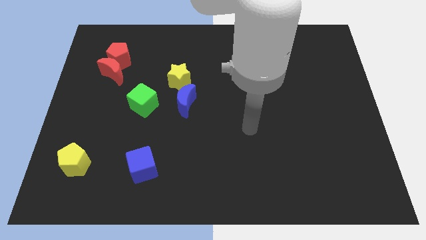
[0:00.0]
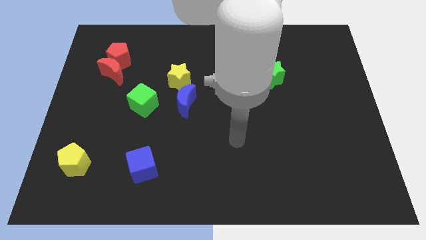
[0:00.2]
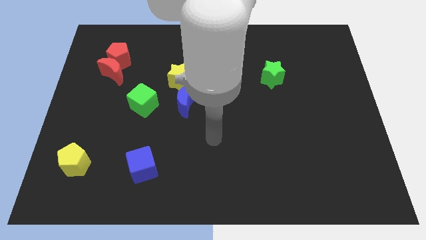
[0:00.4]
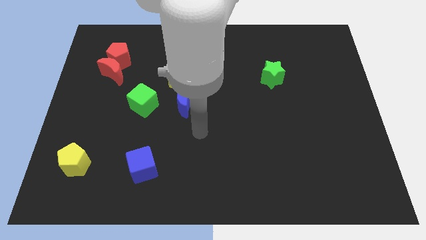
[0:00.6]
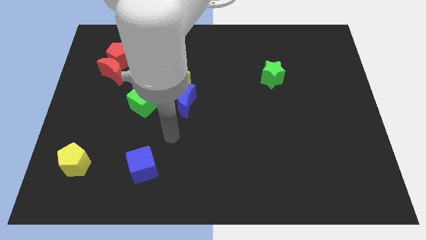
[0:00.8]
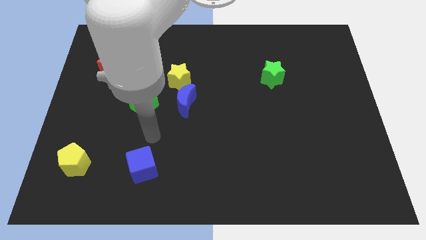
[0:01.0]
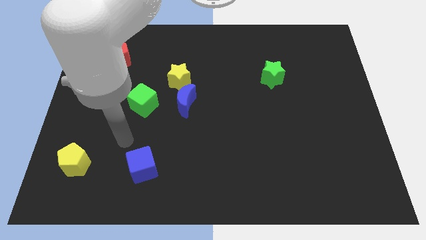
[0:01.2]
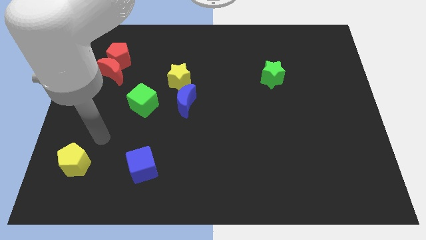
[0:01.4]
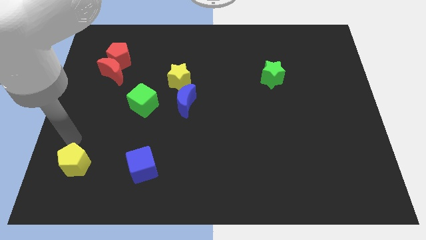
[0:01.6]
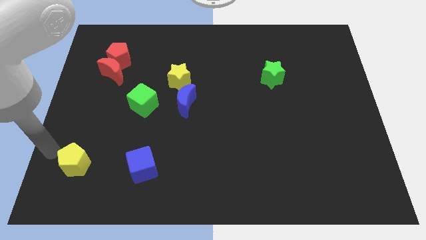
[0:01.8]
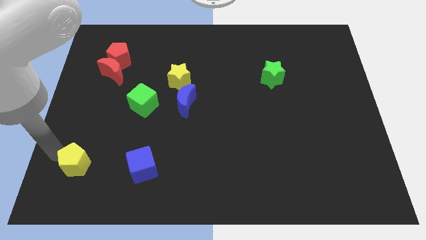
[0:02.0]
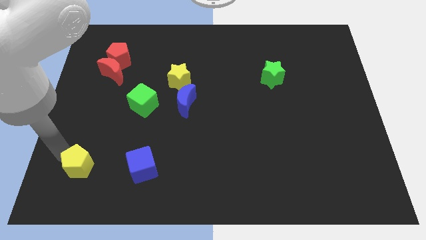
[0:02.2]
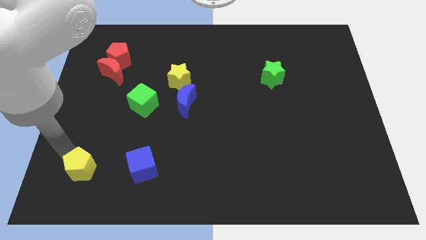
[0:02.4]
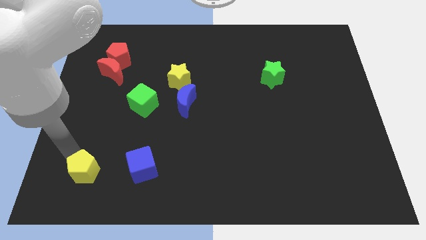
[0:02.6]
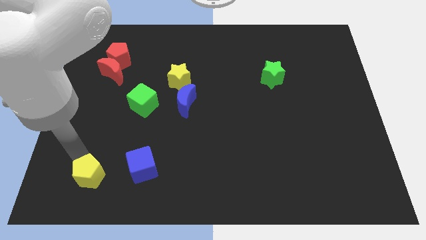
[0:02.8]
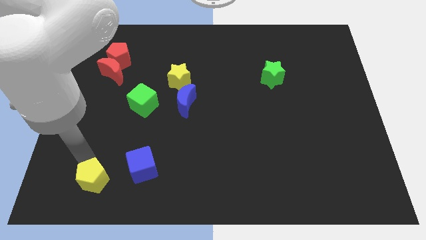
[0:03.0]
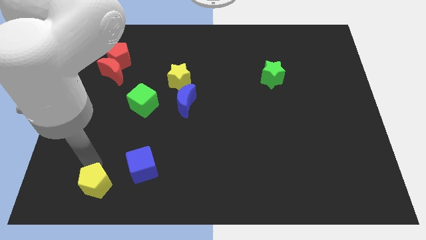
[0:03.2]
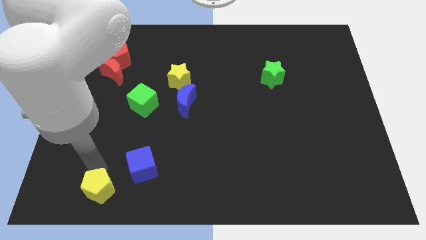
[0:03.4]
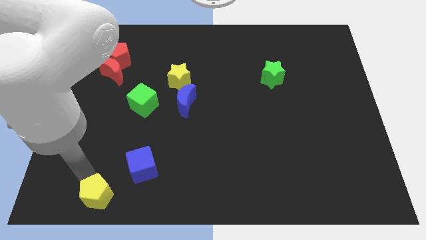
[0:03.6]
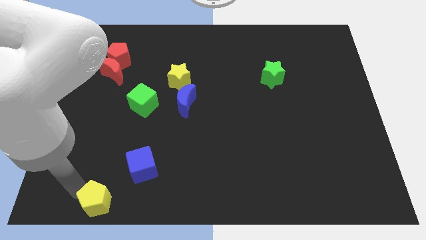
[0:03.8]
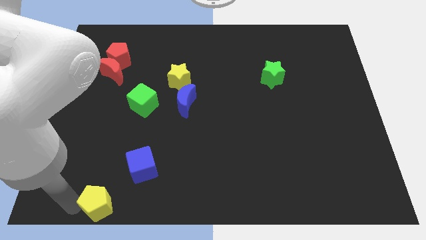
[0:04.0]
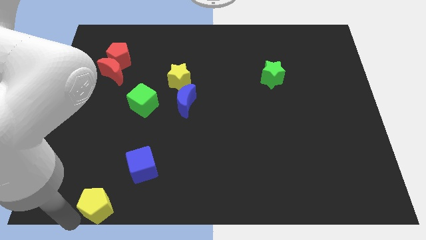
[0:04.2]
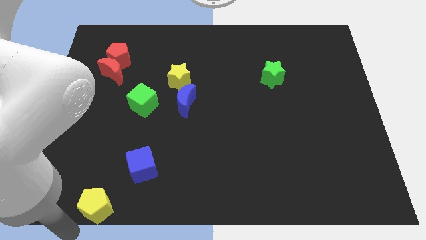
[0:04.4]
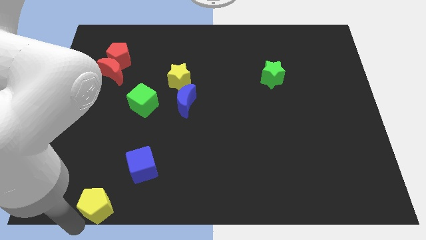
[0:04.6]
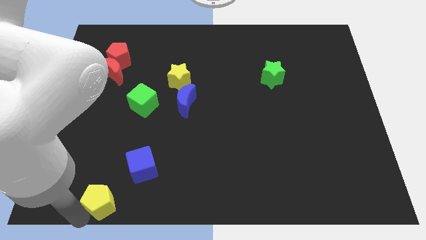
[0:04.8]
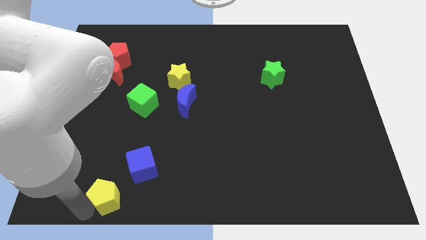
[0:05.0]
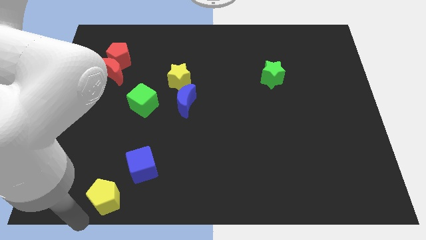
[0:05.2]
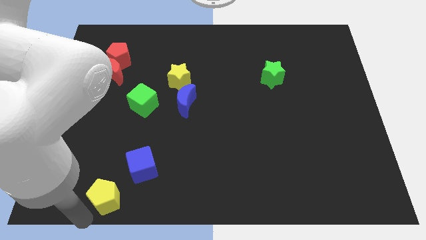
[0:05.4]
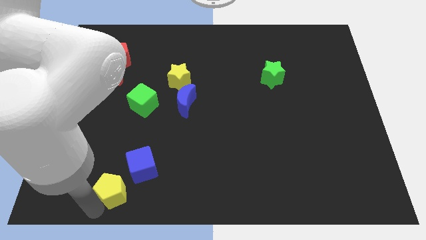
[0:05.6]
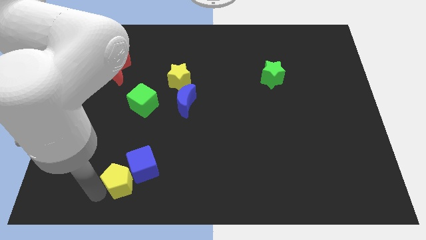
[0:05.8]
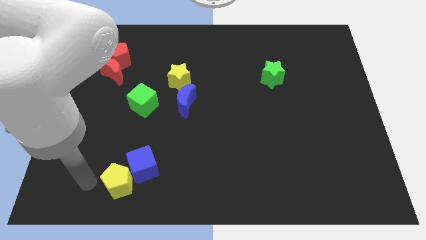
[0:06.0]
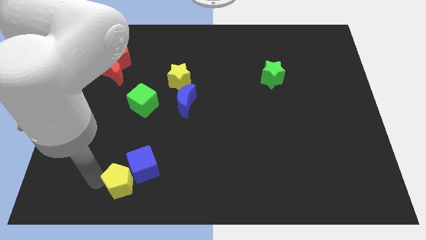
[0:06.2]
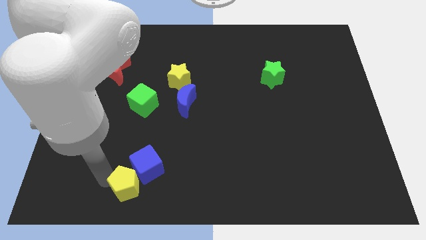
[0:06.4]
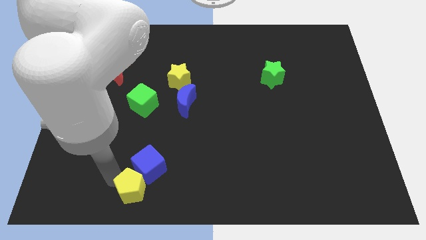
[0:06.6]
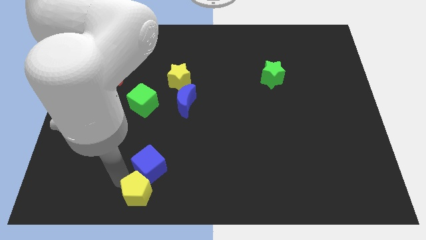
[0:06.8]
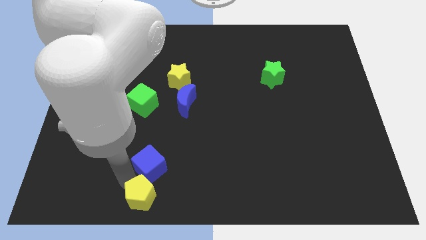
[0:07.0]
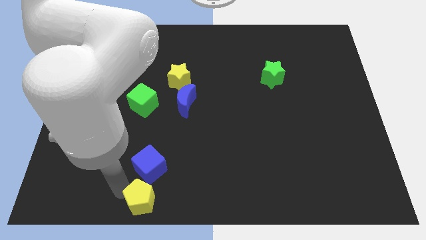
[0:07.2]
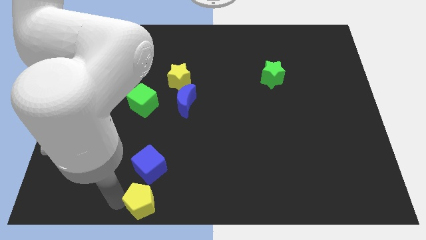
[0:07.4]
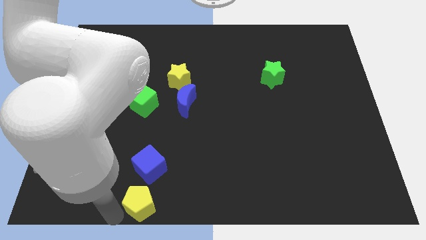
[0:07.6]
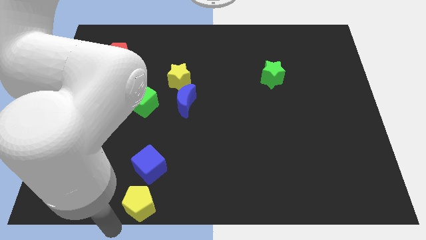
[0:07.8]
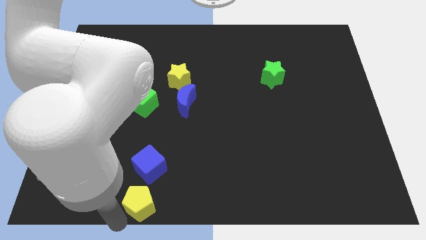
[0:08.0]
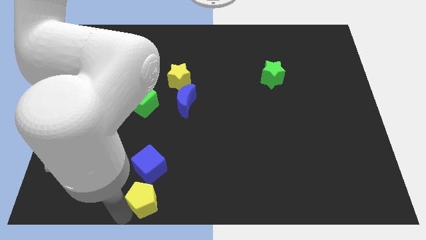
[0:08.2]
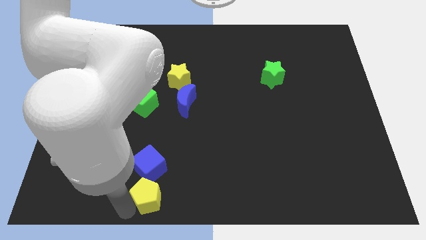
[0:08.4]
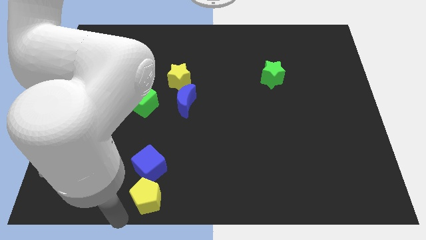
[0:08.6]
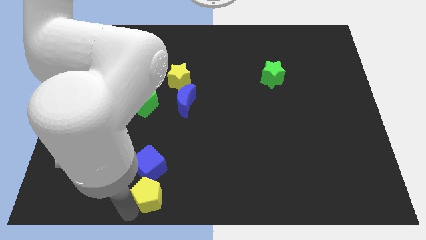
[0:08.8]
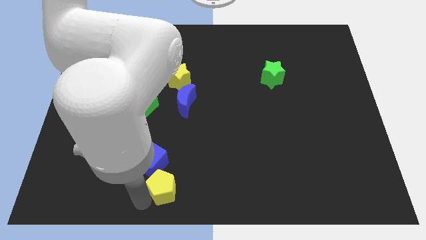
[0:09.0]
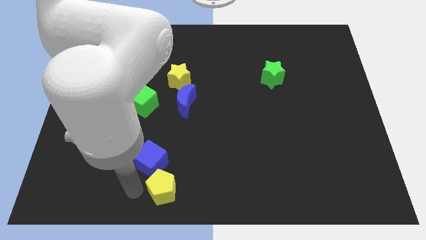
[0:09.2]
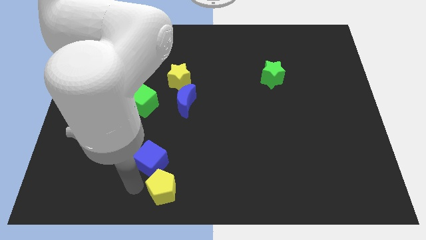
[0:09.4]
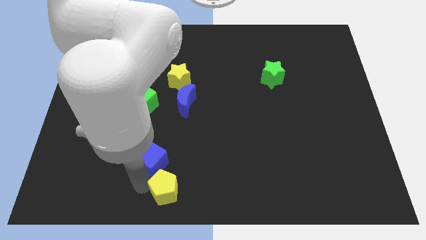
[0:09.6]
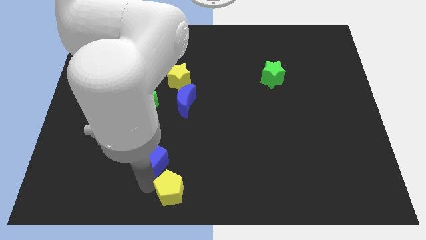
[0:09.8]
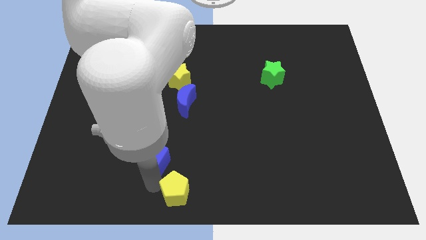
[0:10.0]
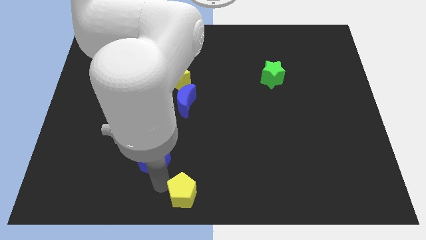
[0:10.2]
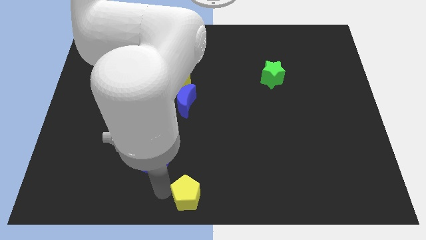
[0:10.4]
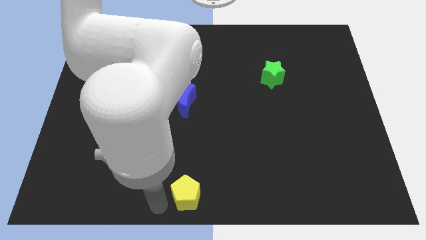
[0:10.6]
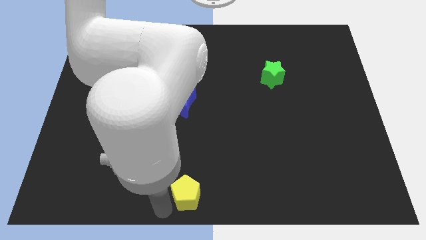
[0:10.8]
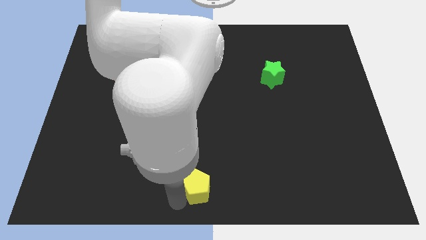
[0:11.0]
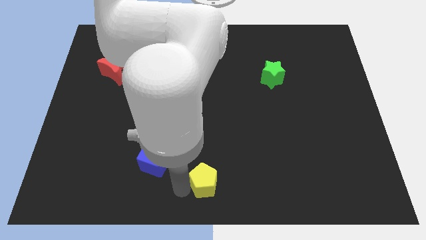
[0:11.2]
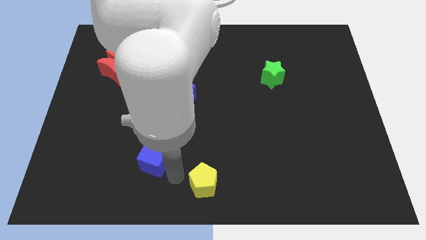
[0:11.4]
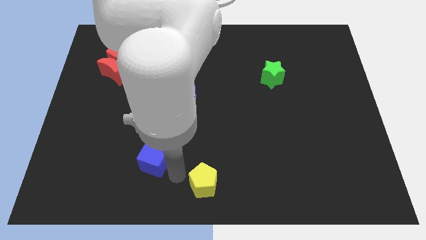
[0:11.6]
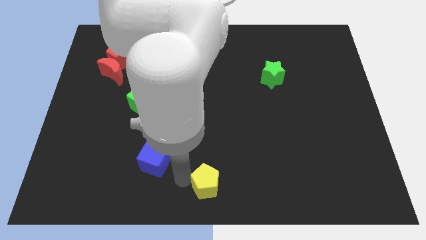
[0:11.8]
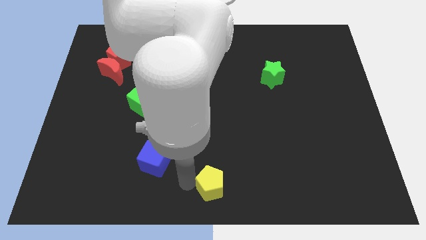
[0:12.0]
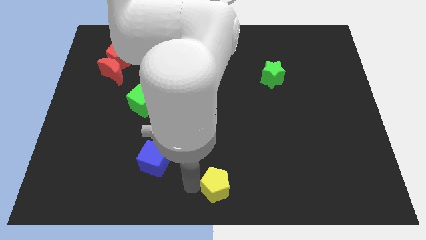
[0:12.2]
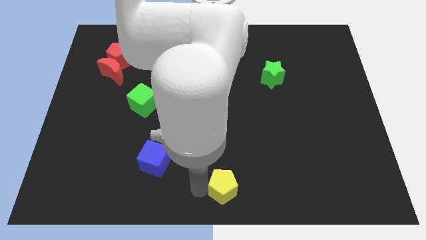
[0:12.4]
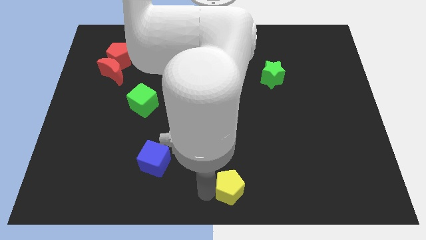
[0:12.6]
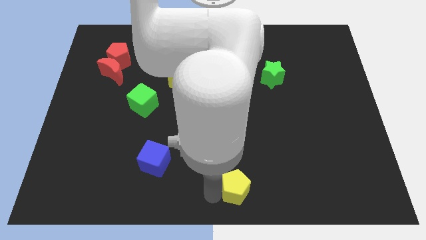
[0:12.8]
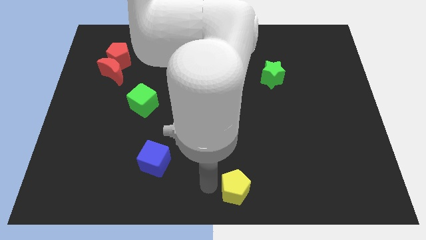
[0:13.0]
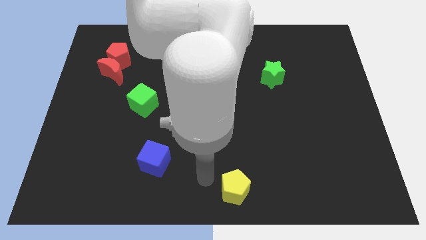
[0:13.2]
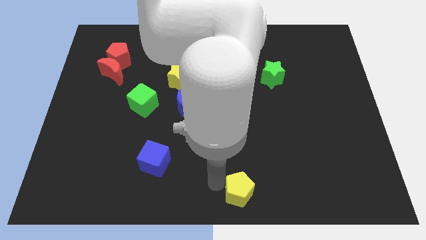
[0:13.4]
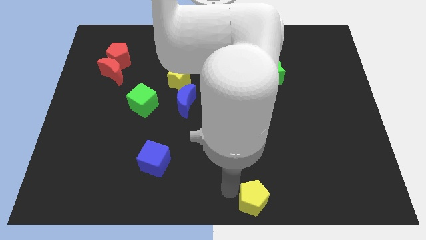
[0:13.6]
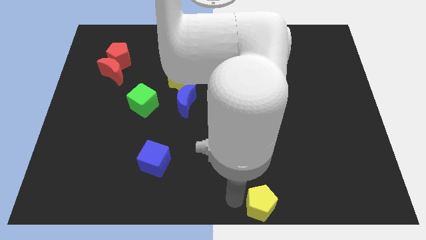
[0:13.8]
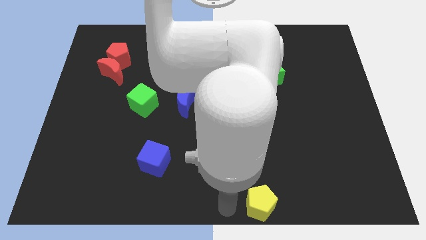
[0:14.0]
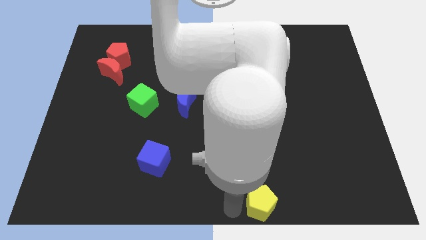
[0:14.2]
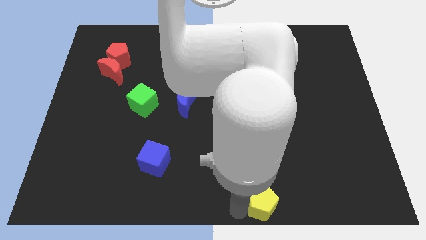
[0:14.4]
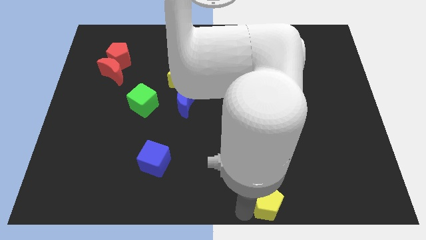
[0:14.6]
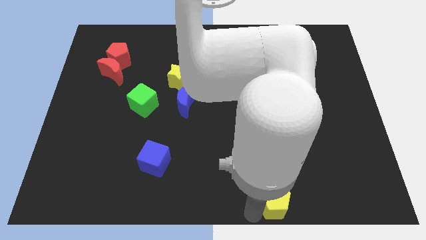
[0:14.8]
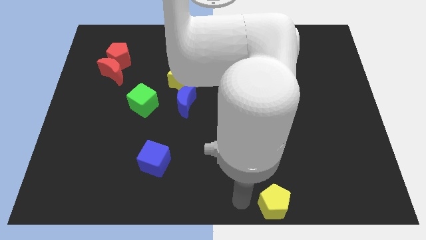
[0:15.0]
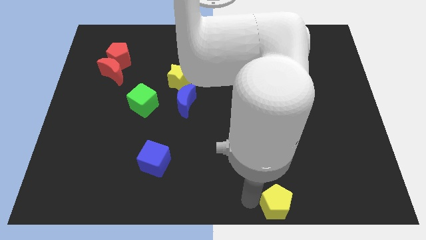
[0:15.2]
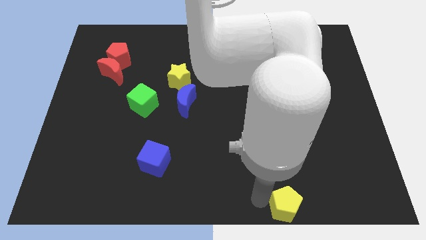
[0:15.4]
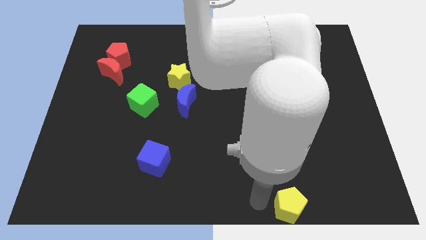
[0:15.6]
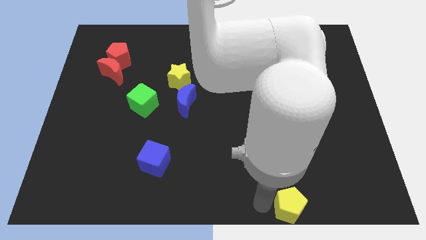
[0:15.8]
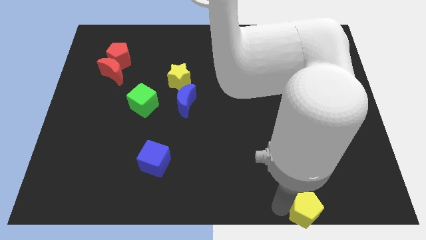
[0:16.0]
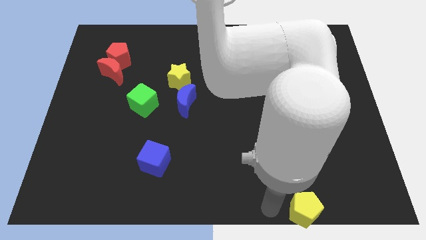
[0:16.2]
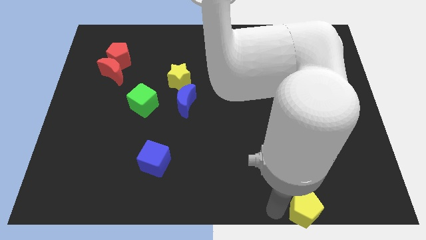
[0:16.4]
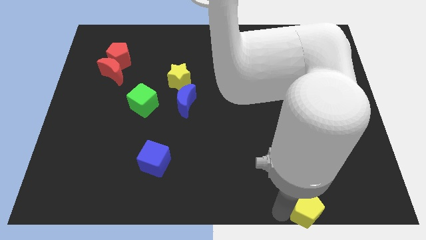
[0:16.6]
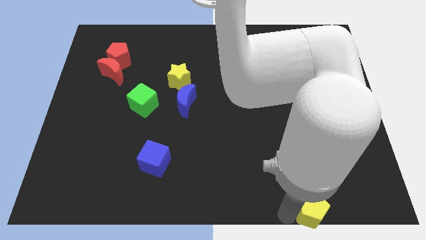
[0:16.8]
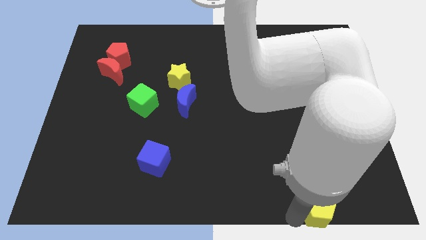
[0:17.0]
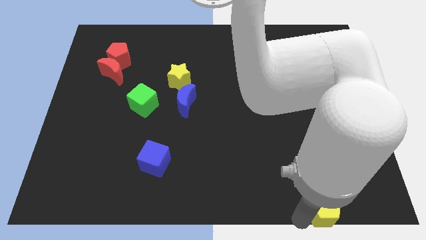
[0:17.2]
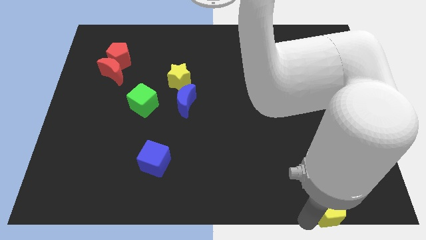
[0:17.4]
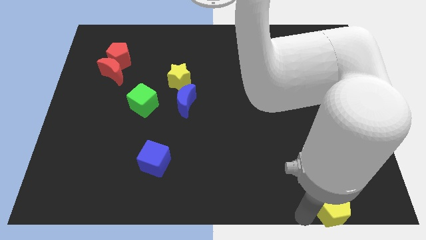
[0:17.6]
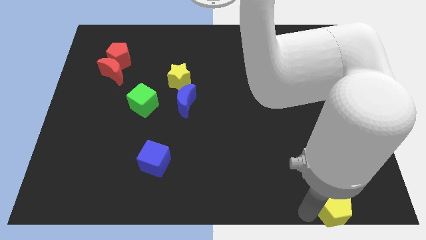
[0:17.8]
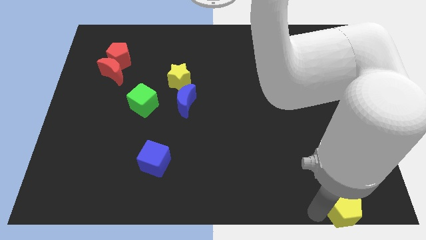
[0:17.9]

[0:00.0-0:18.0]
slide the yellow pentagon to the bottom right corner
